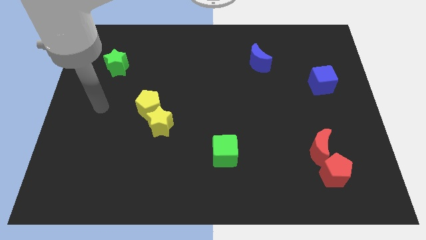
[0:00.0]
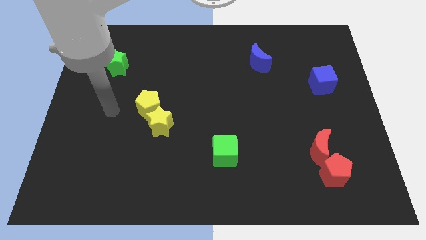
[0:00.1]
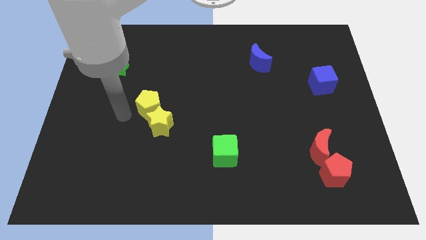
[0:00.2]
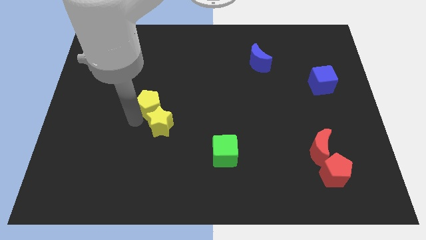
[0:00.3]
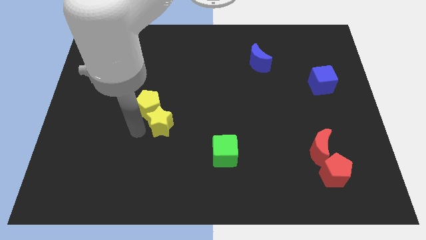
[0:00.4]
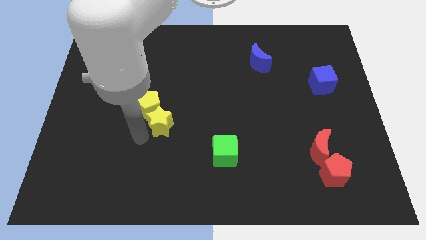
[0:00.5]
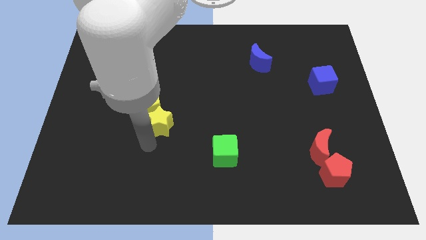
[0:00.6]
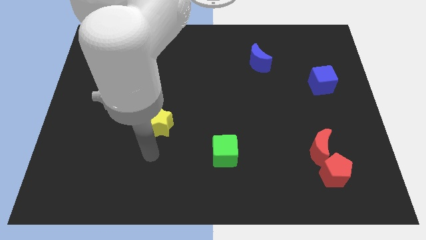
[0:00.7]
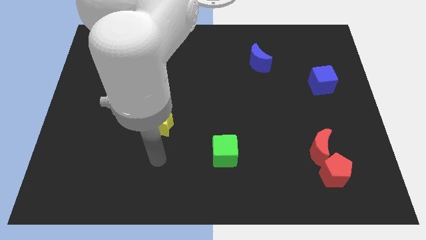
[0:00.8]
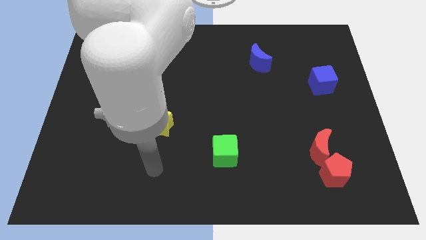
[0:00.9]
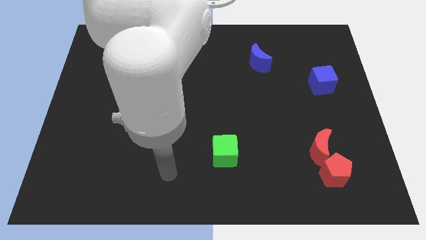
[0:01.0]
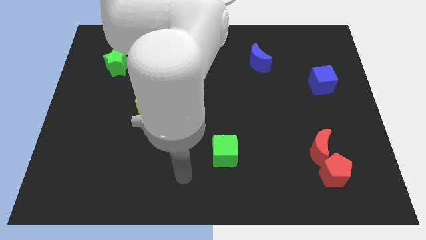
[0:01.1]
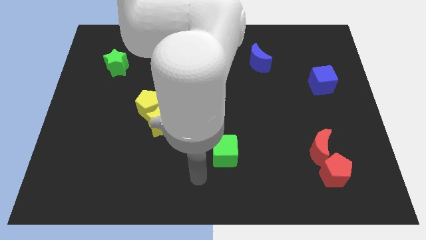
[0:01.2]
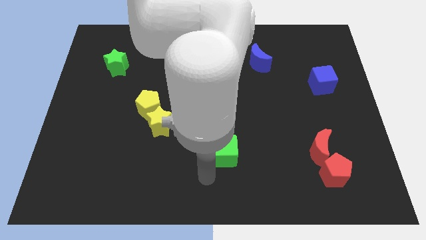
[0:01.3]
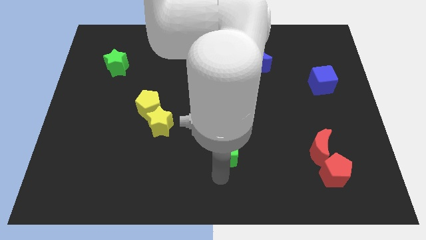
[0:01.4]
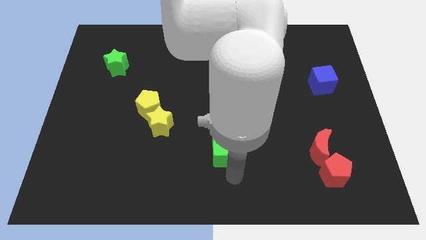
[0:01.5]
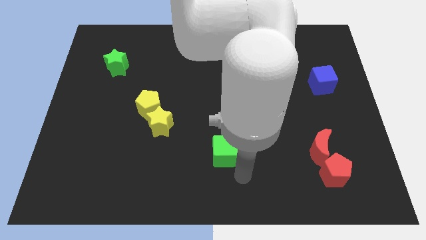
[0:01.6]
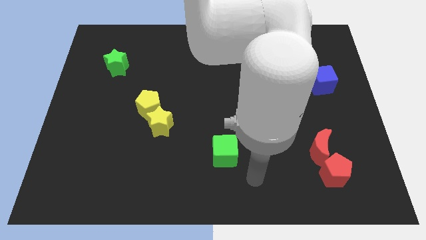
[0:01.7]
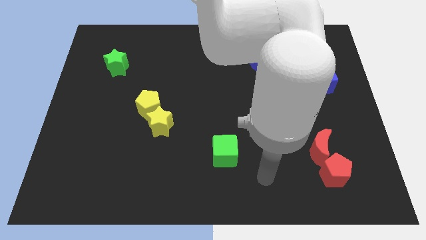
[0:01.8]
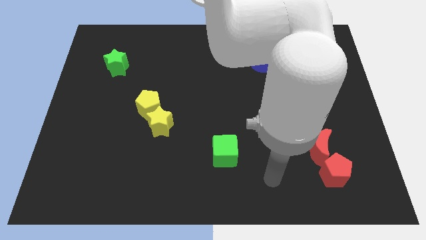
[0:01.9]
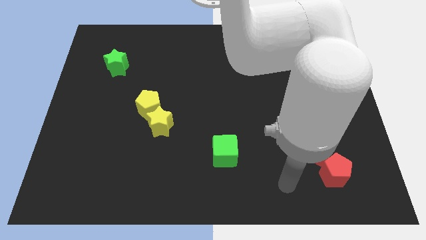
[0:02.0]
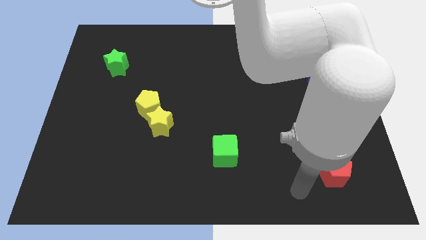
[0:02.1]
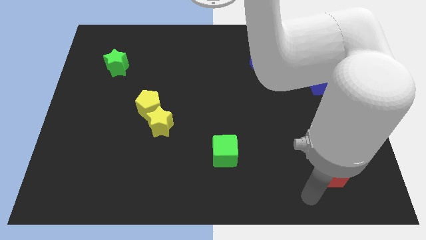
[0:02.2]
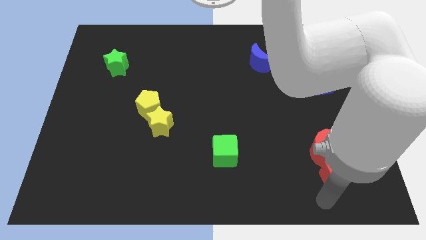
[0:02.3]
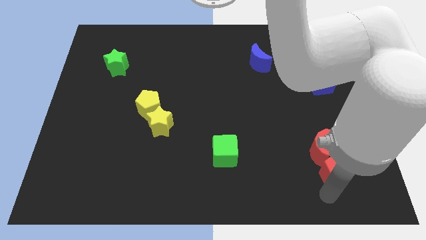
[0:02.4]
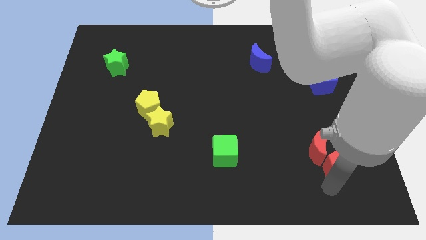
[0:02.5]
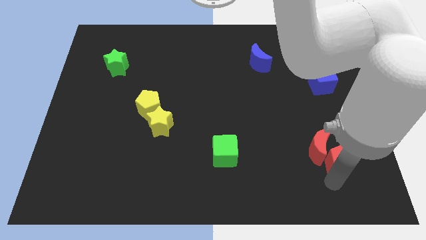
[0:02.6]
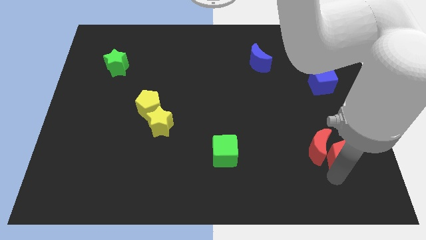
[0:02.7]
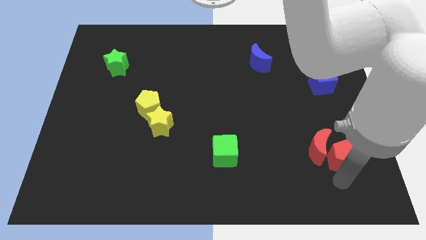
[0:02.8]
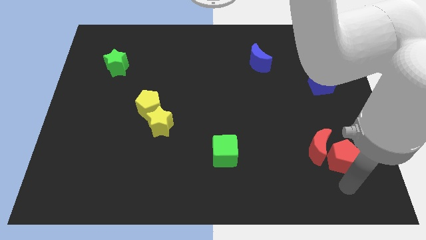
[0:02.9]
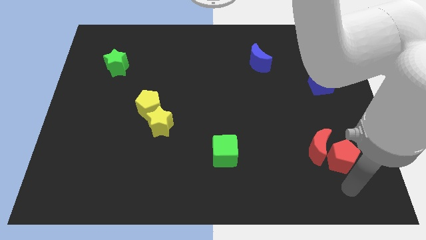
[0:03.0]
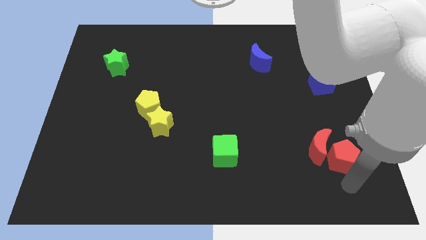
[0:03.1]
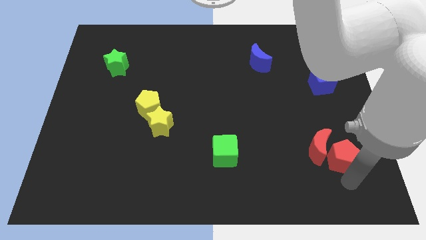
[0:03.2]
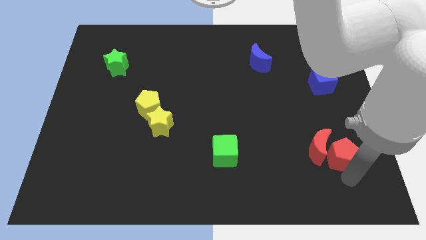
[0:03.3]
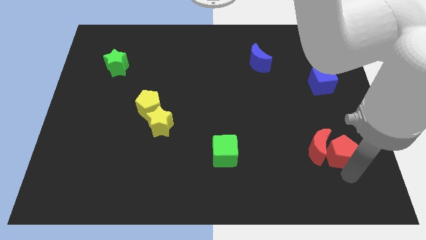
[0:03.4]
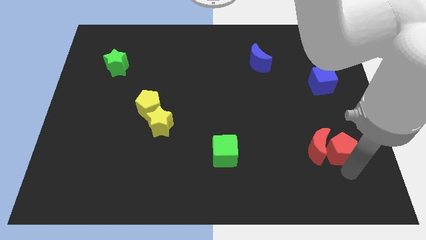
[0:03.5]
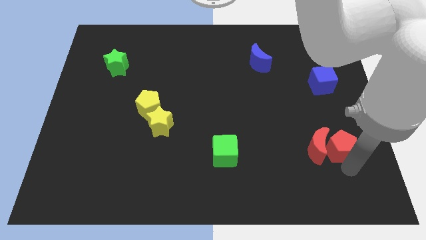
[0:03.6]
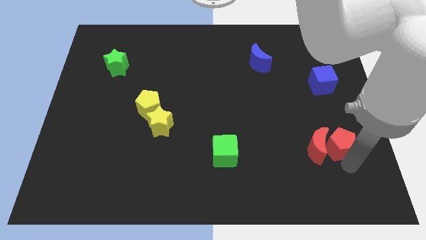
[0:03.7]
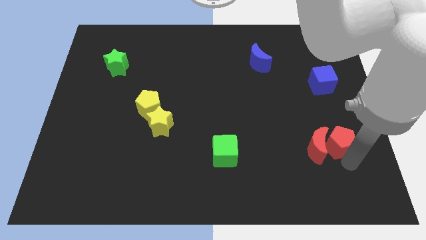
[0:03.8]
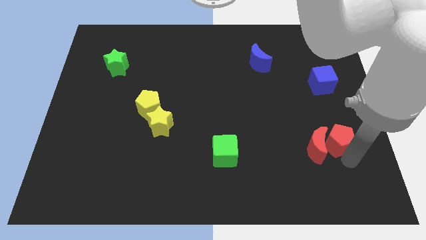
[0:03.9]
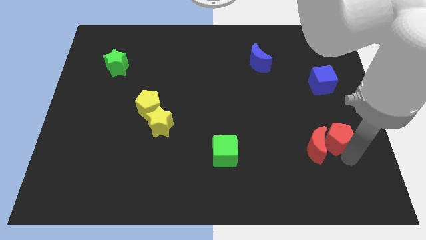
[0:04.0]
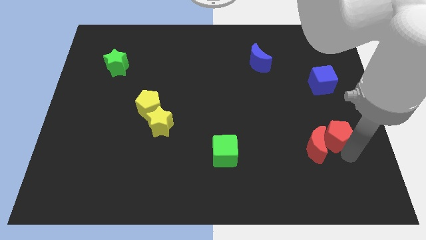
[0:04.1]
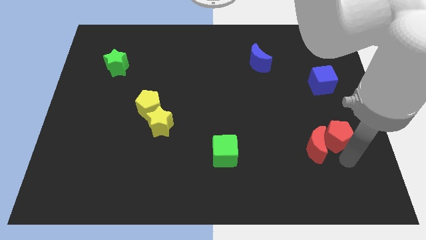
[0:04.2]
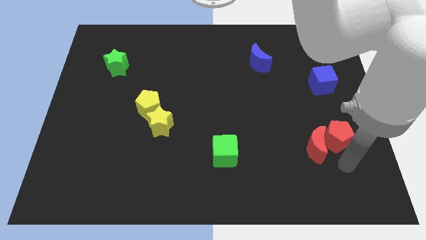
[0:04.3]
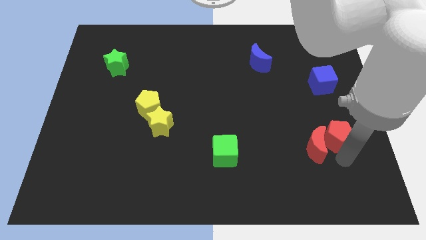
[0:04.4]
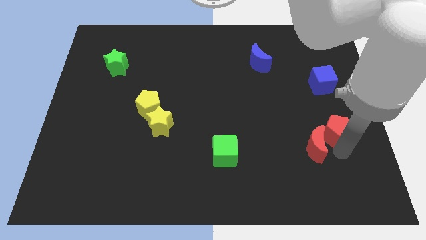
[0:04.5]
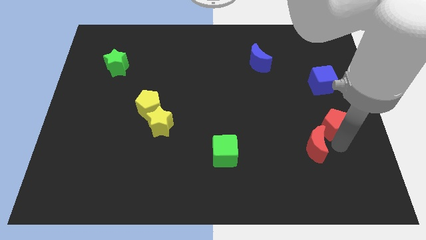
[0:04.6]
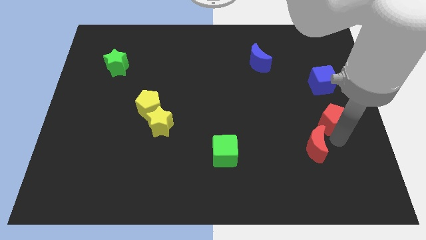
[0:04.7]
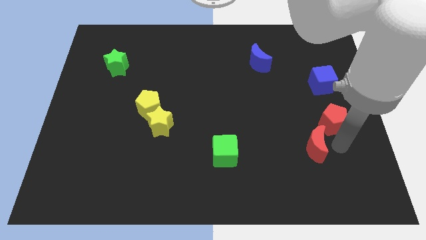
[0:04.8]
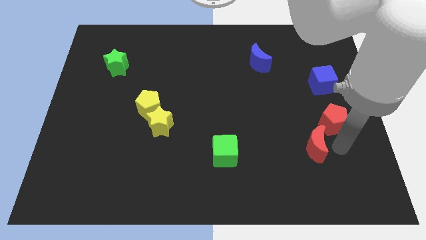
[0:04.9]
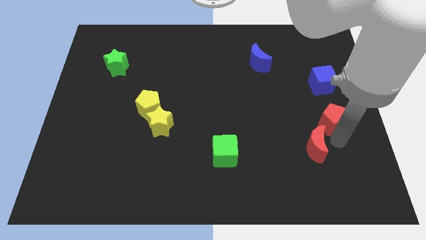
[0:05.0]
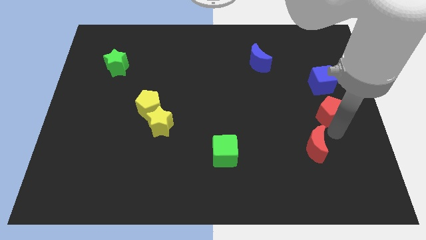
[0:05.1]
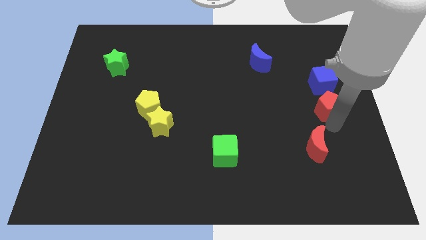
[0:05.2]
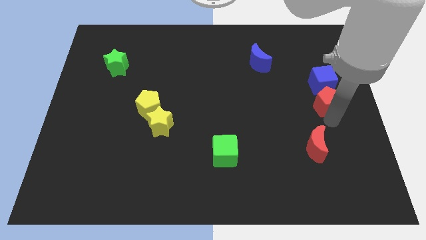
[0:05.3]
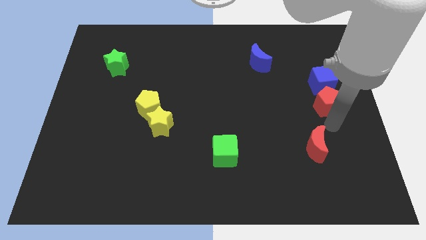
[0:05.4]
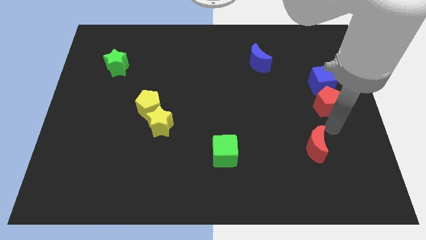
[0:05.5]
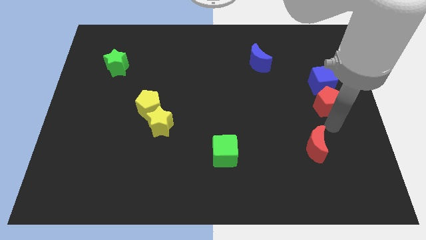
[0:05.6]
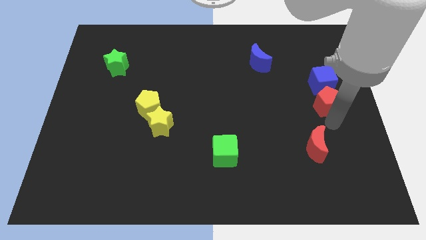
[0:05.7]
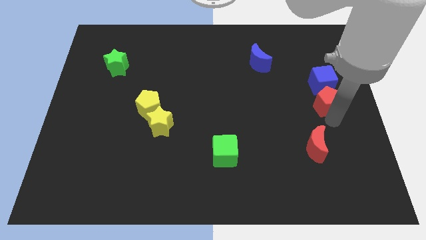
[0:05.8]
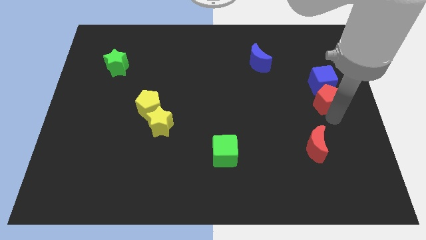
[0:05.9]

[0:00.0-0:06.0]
move the red pentagon to the blue cube

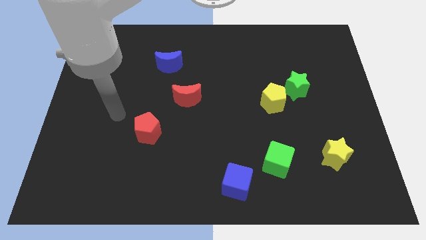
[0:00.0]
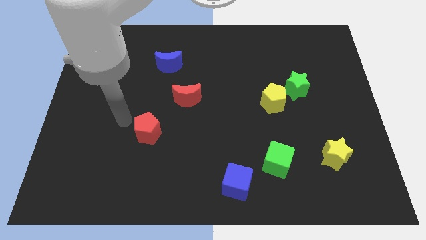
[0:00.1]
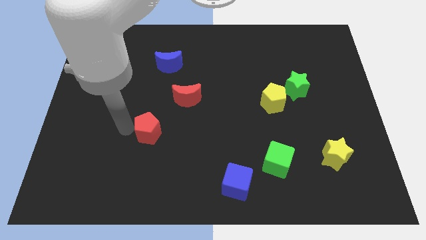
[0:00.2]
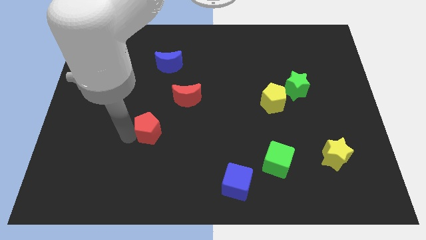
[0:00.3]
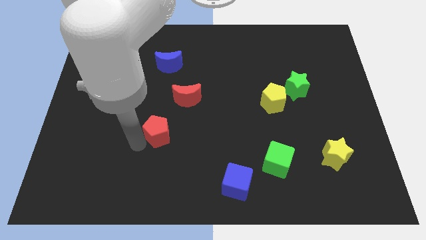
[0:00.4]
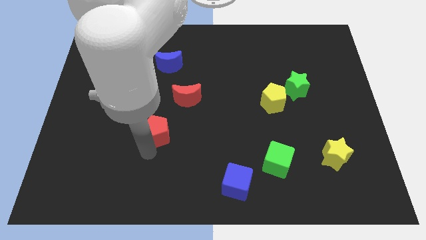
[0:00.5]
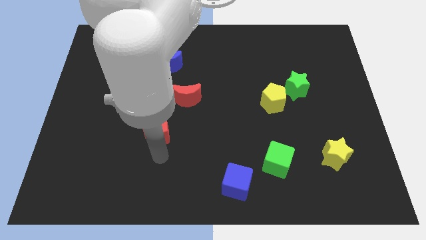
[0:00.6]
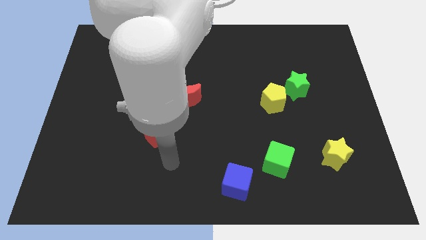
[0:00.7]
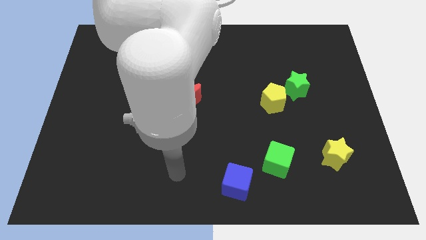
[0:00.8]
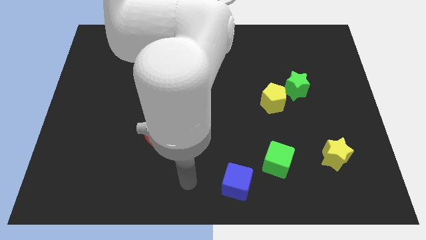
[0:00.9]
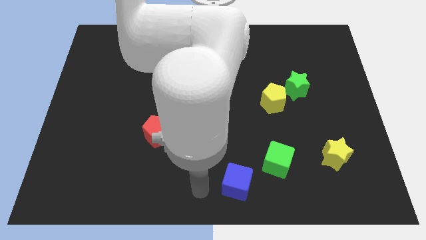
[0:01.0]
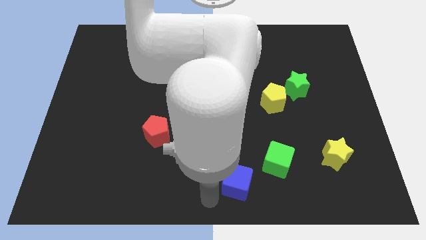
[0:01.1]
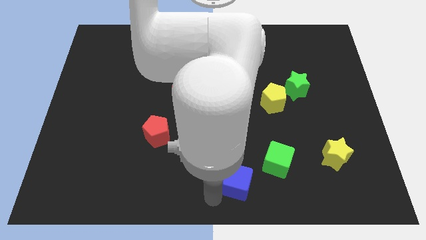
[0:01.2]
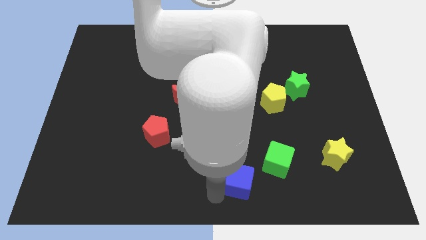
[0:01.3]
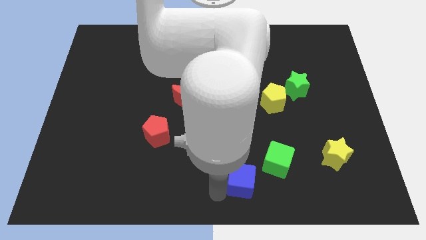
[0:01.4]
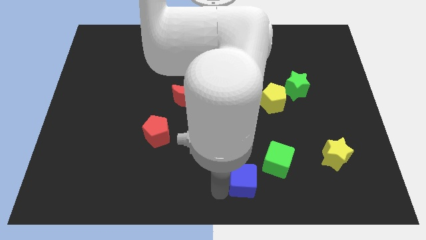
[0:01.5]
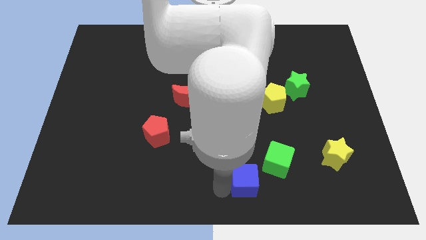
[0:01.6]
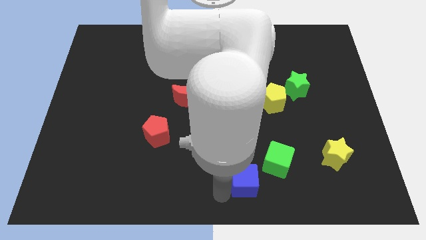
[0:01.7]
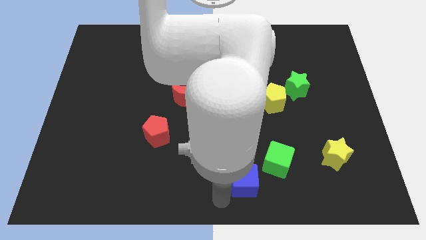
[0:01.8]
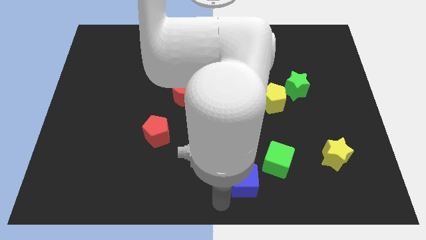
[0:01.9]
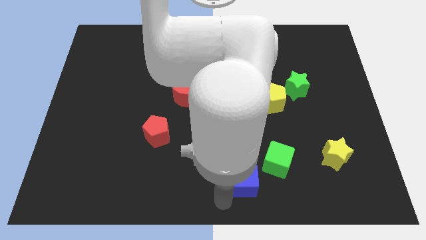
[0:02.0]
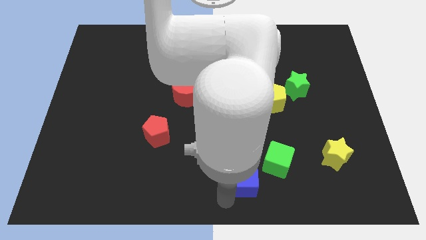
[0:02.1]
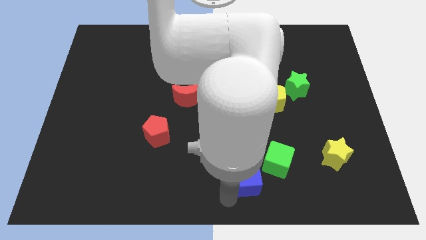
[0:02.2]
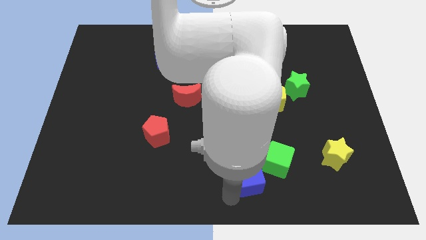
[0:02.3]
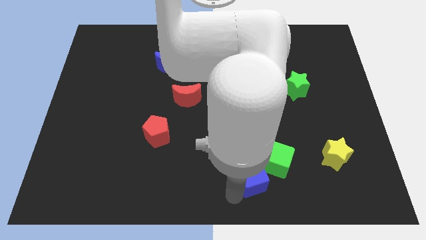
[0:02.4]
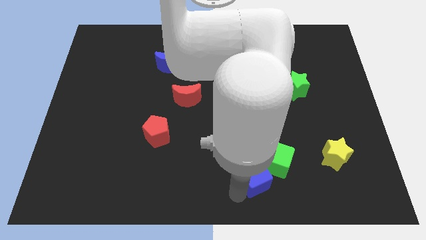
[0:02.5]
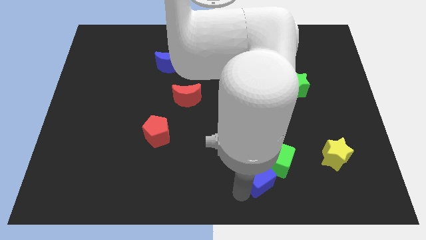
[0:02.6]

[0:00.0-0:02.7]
push the blue cube close to the green cube

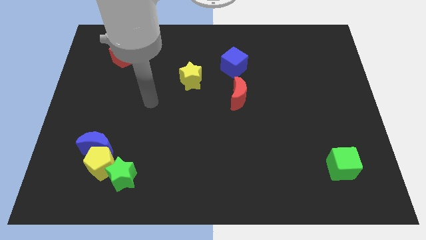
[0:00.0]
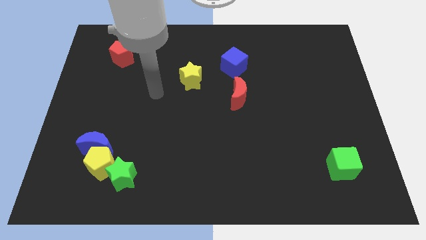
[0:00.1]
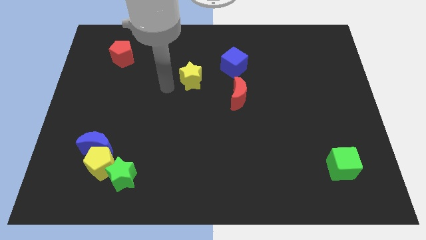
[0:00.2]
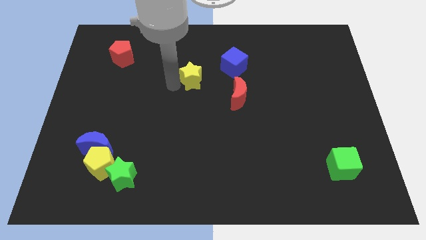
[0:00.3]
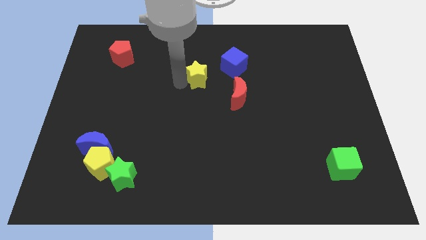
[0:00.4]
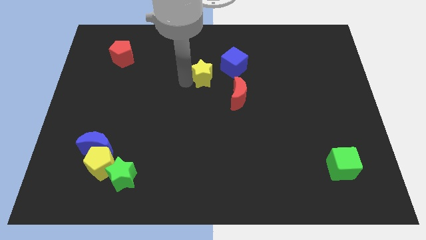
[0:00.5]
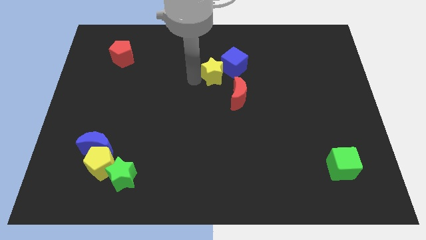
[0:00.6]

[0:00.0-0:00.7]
slide the yellow star next to the blue cube
